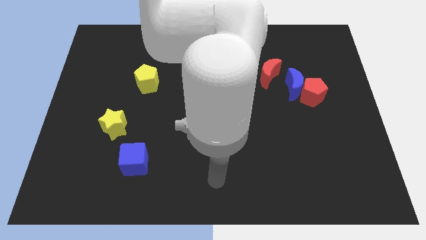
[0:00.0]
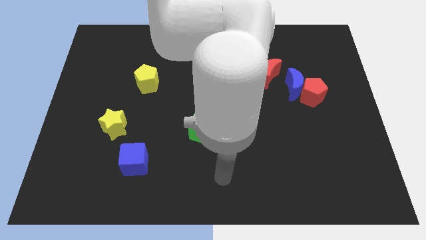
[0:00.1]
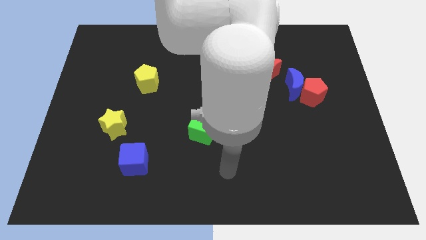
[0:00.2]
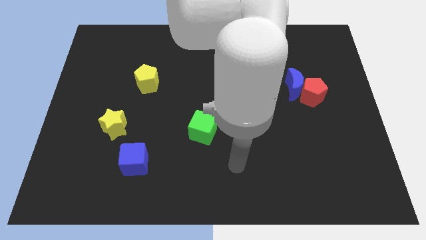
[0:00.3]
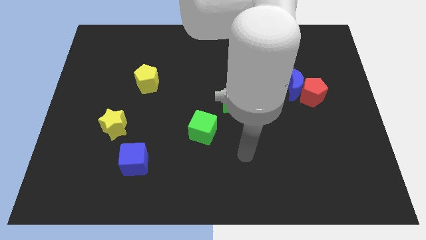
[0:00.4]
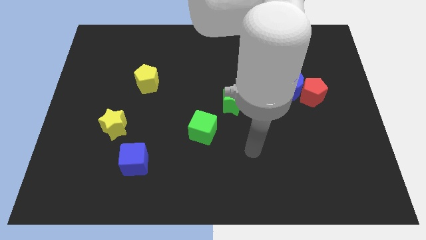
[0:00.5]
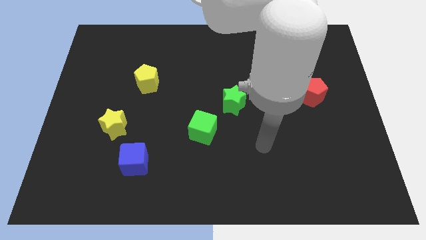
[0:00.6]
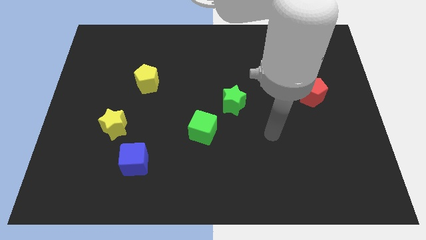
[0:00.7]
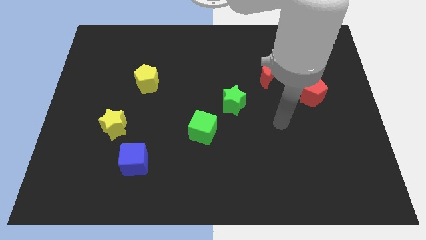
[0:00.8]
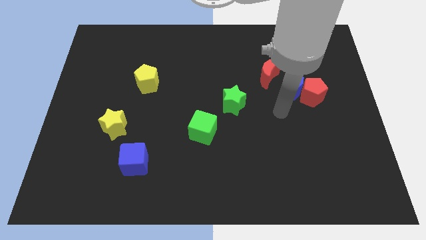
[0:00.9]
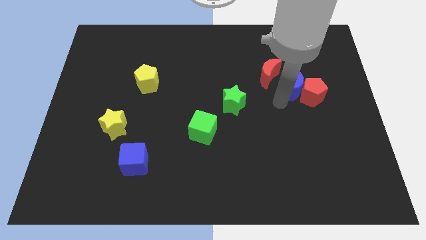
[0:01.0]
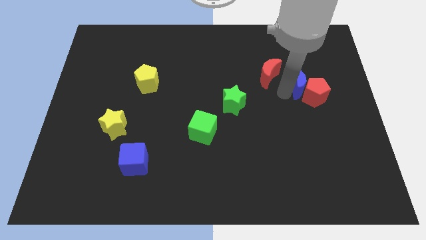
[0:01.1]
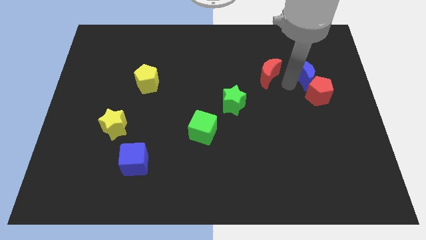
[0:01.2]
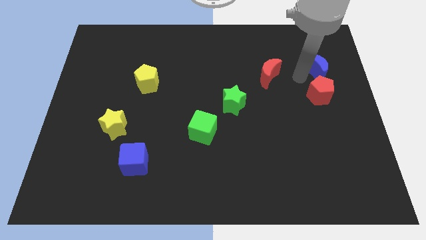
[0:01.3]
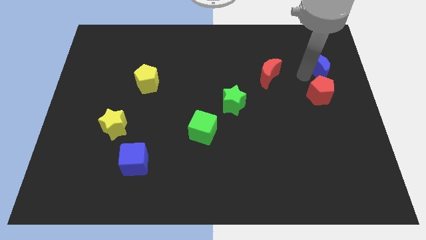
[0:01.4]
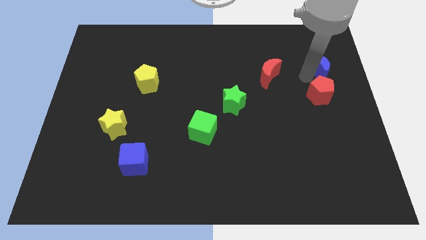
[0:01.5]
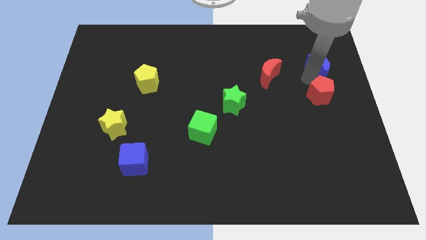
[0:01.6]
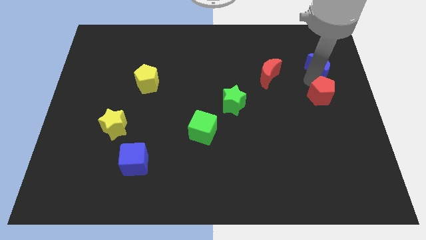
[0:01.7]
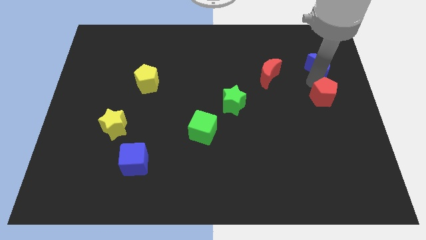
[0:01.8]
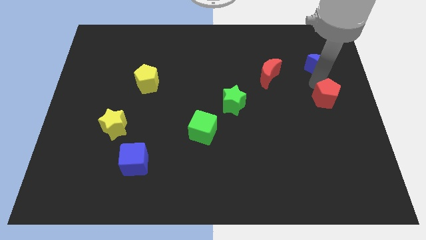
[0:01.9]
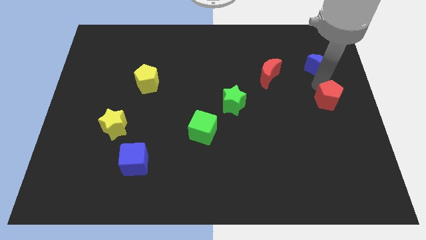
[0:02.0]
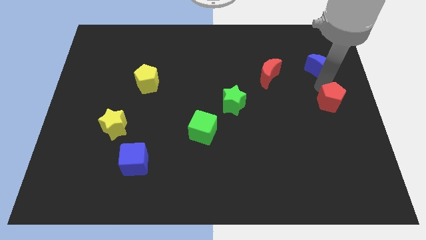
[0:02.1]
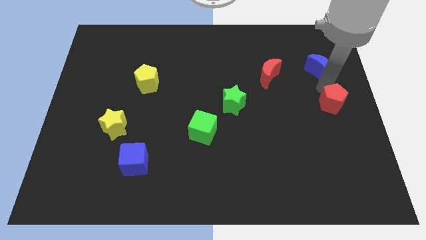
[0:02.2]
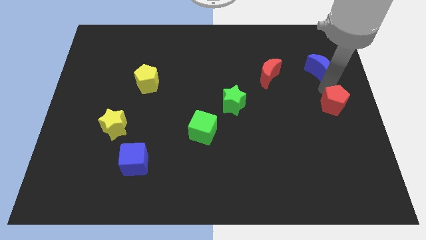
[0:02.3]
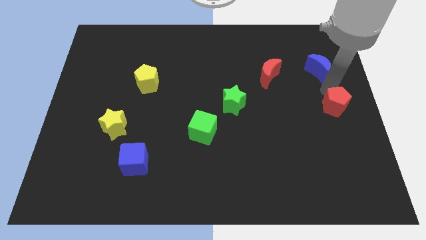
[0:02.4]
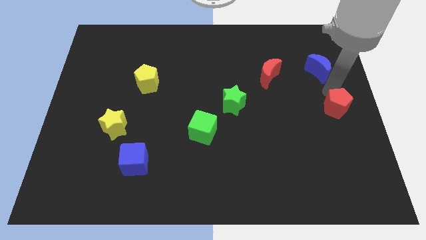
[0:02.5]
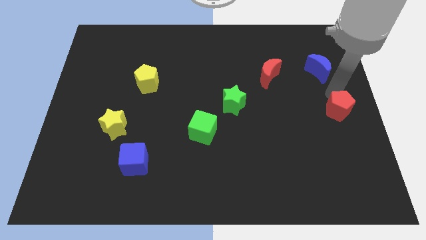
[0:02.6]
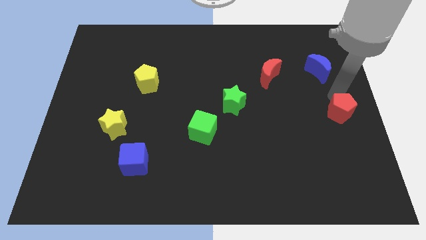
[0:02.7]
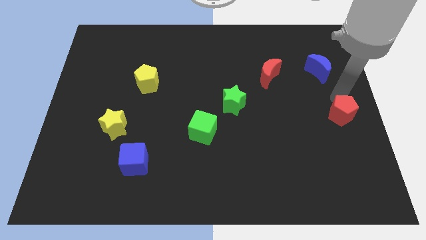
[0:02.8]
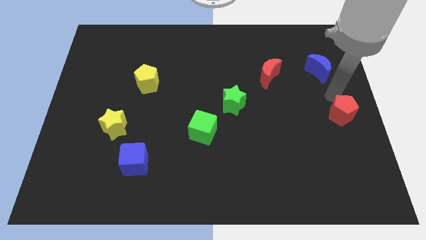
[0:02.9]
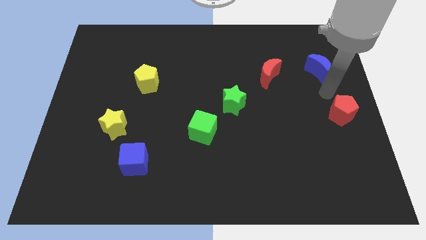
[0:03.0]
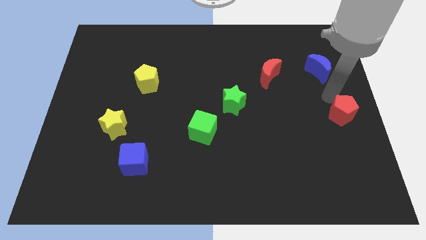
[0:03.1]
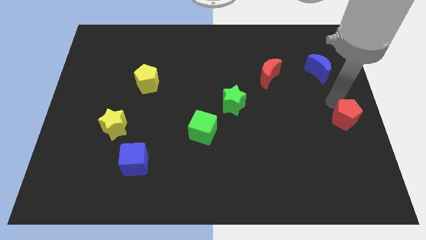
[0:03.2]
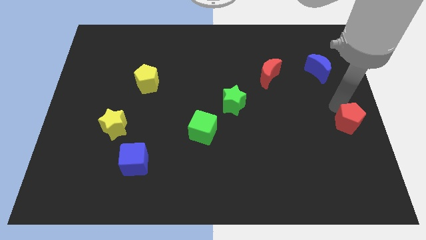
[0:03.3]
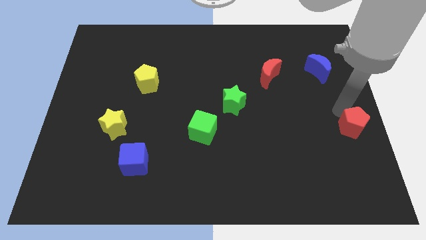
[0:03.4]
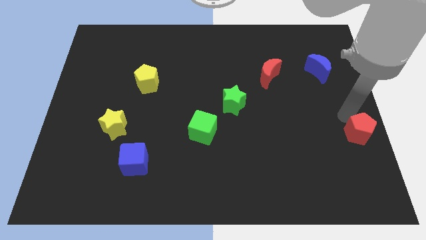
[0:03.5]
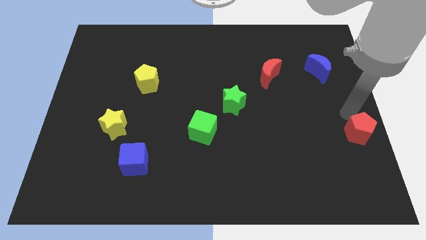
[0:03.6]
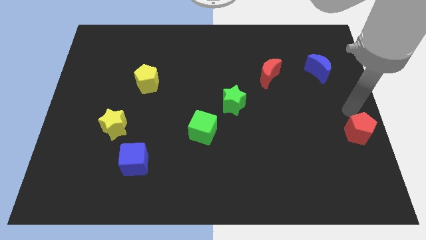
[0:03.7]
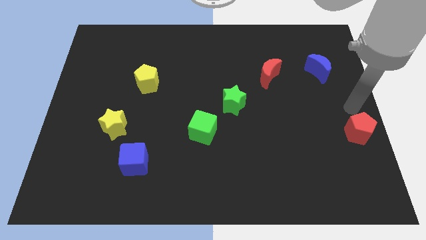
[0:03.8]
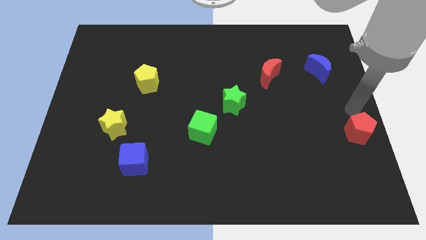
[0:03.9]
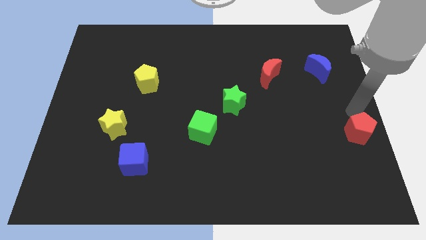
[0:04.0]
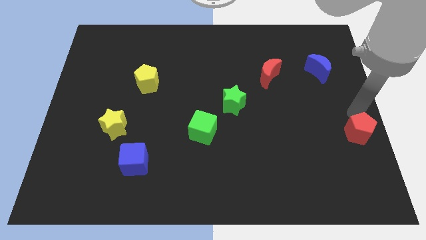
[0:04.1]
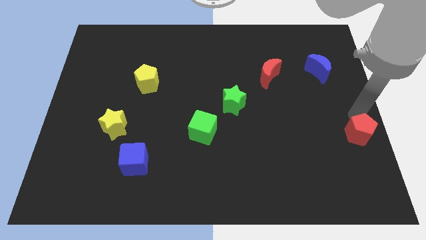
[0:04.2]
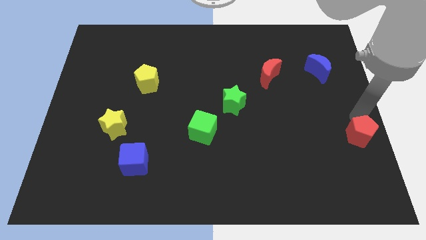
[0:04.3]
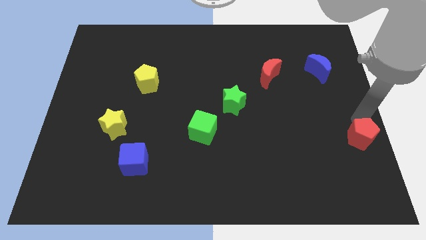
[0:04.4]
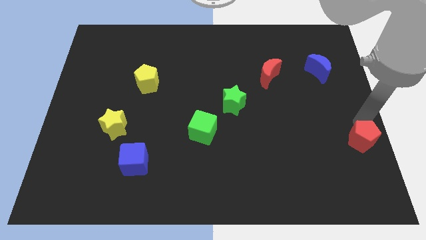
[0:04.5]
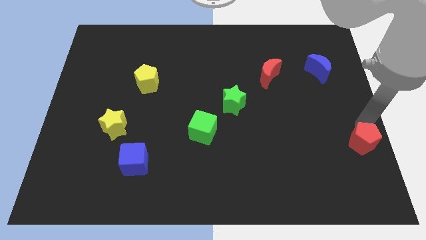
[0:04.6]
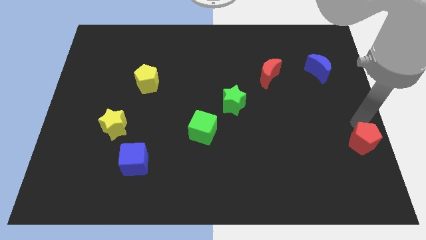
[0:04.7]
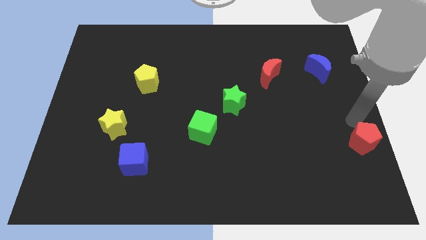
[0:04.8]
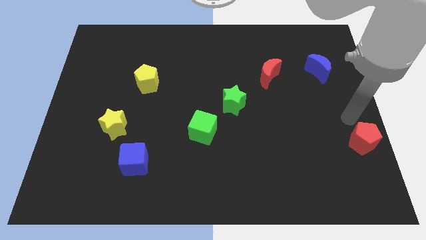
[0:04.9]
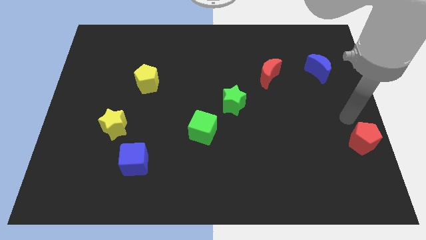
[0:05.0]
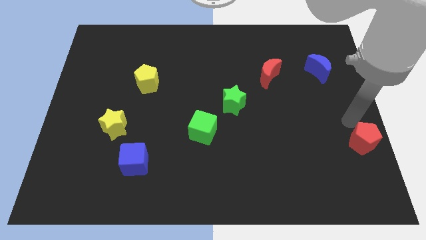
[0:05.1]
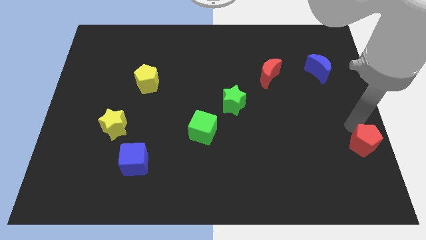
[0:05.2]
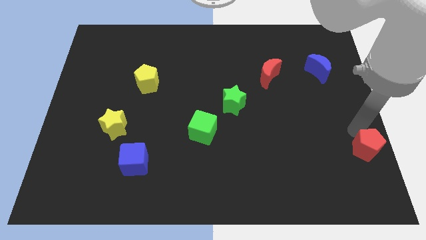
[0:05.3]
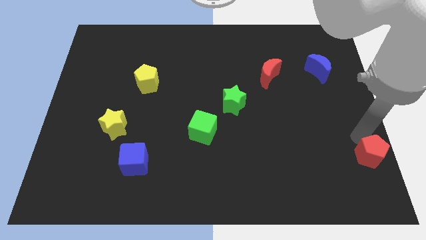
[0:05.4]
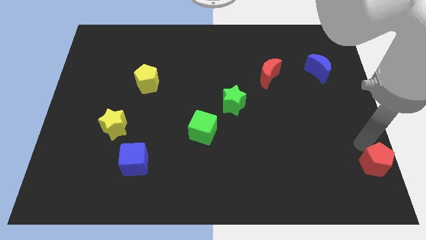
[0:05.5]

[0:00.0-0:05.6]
move the red pentagon to the bottom right corner
